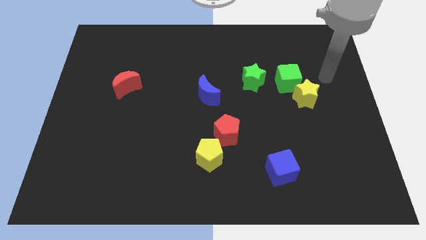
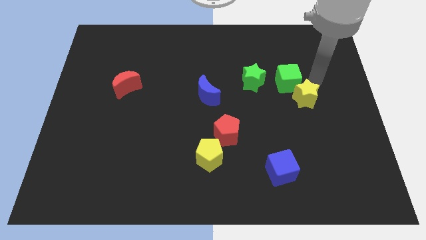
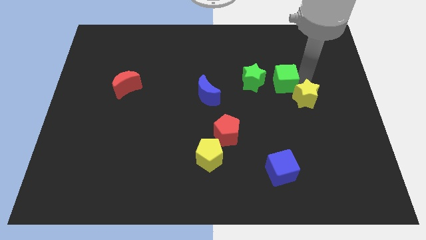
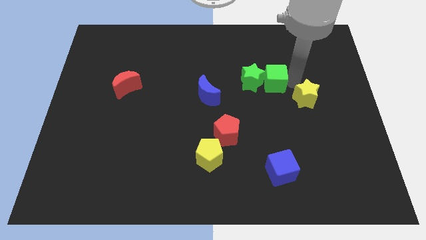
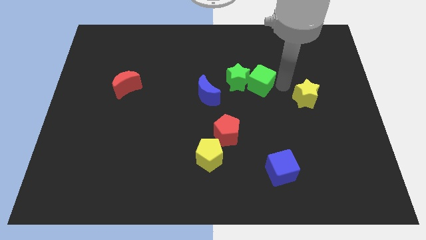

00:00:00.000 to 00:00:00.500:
separate the yellow star from the green cube

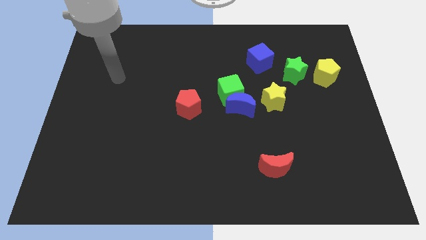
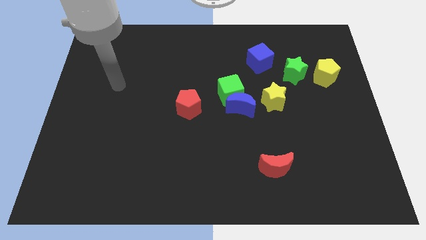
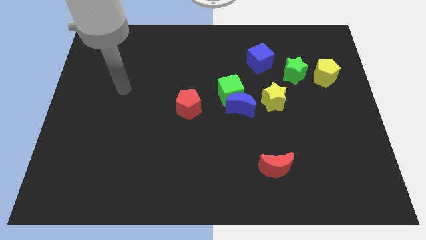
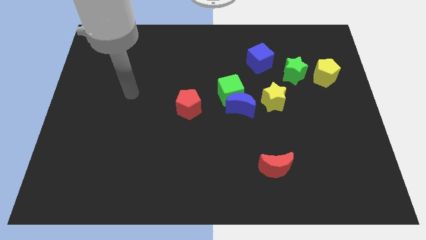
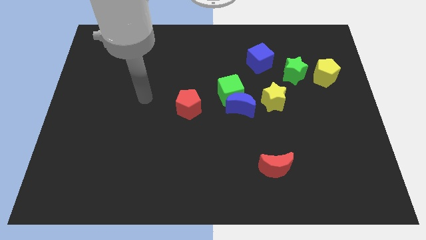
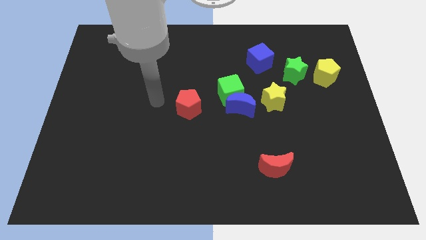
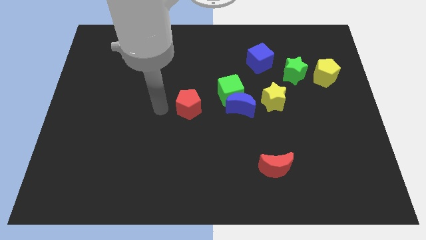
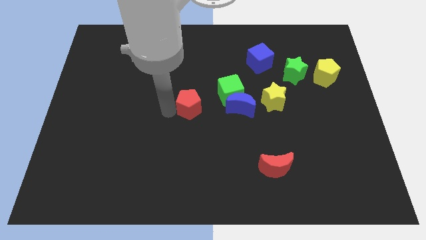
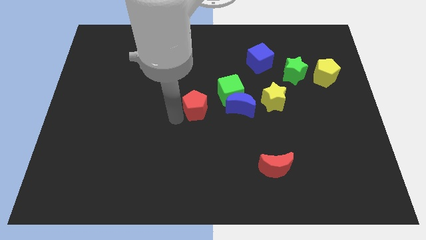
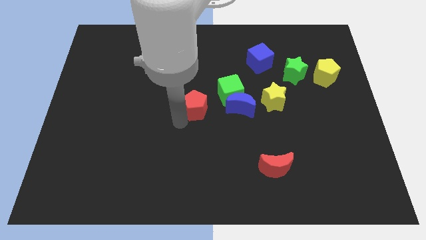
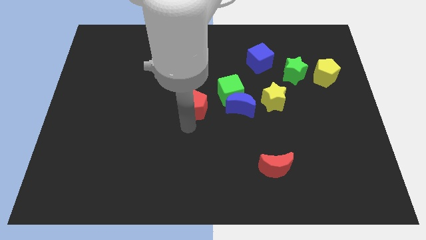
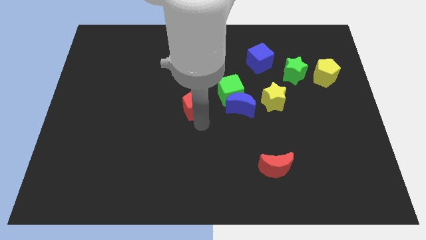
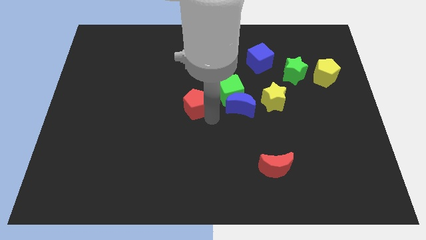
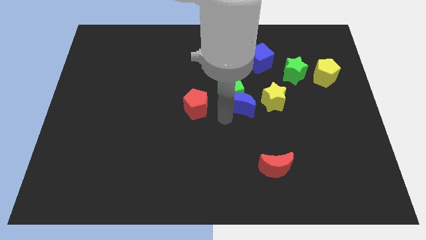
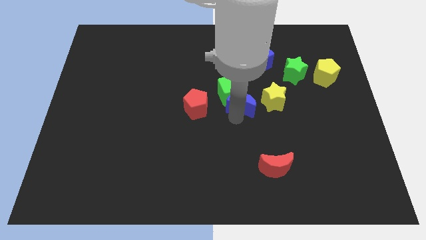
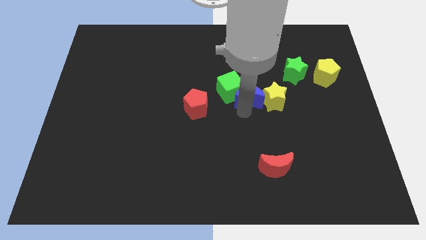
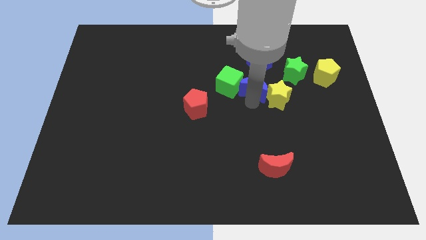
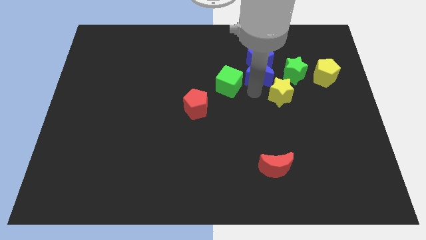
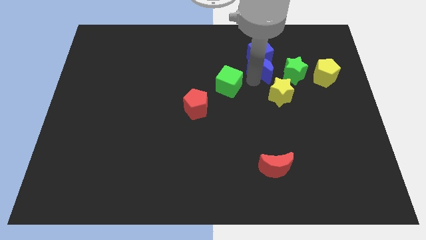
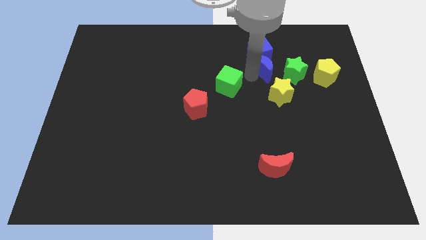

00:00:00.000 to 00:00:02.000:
move the green cube away from the blue moon

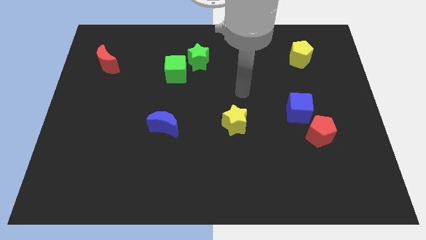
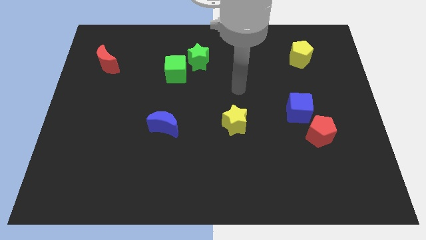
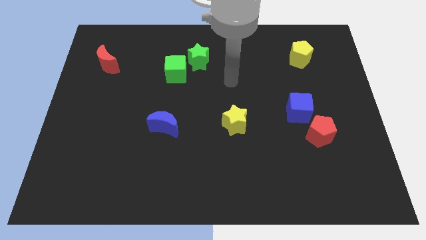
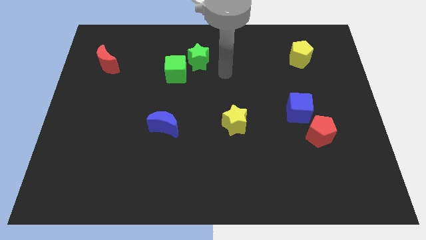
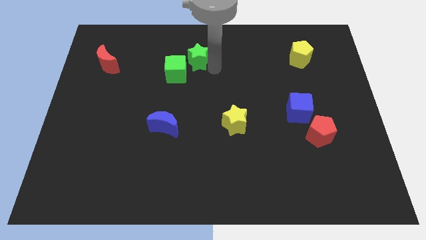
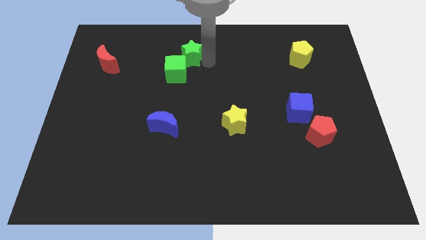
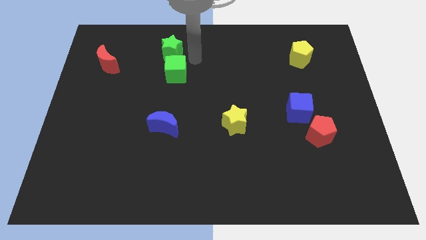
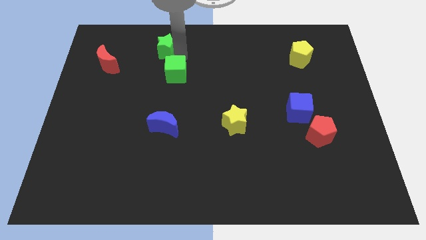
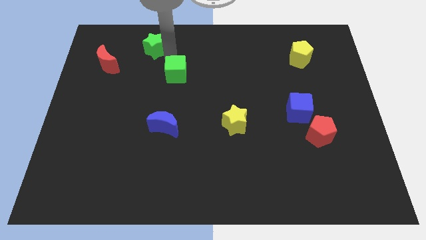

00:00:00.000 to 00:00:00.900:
move the green cube away from the green star

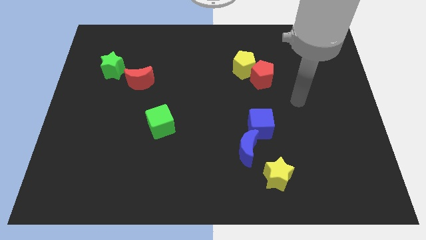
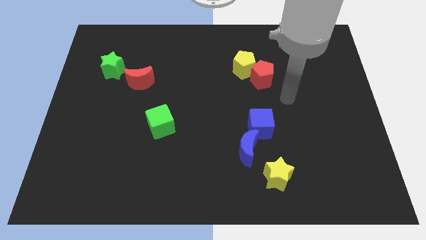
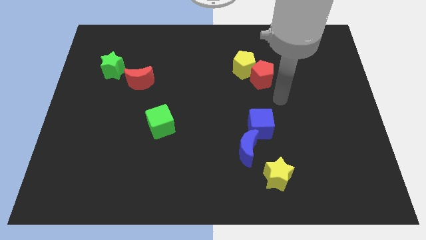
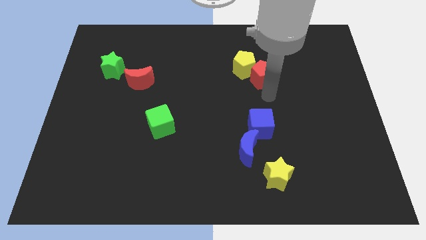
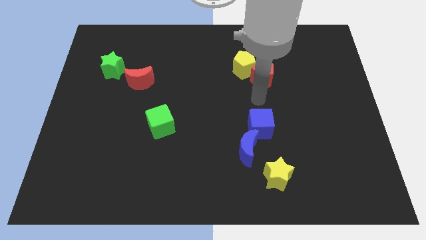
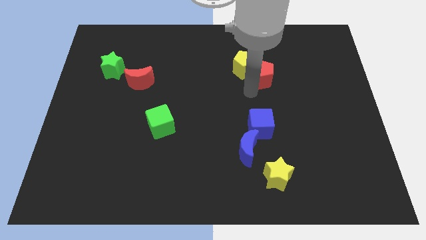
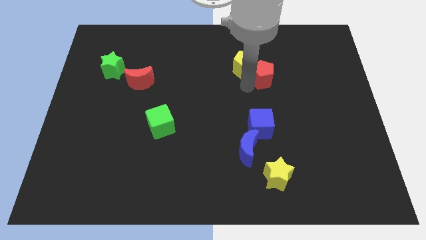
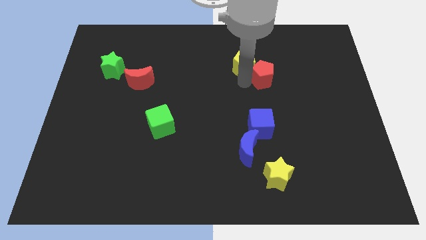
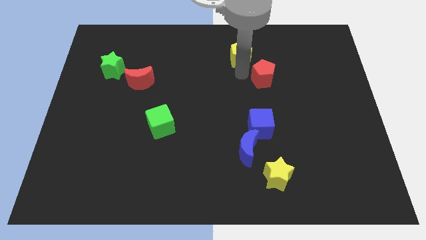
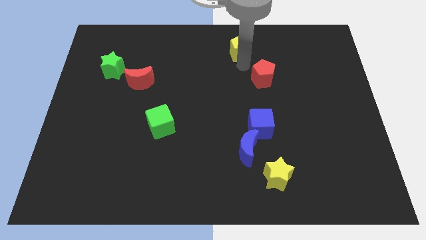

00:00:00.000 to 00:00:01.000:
move the red pentagon away from the yellow pentagon

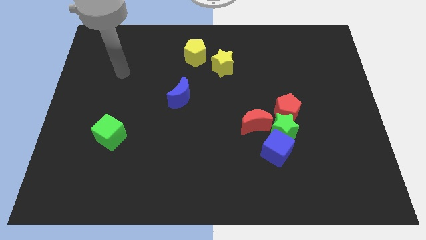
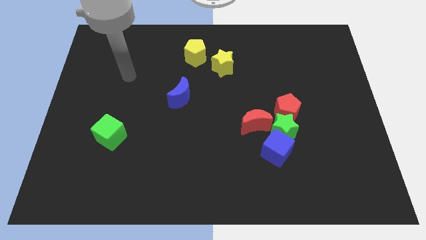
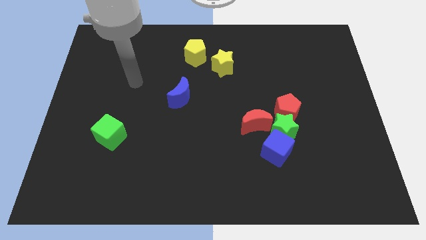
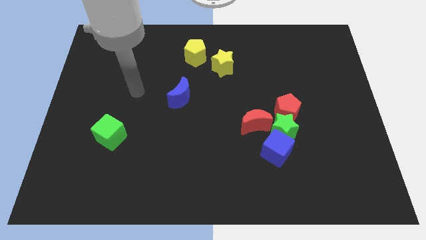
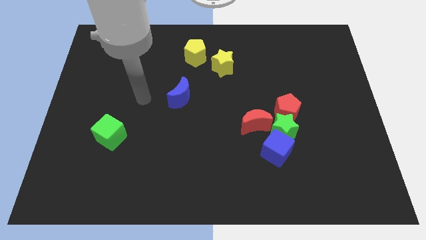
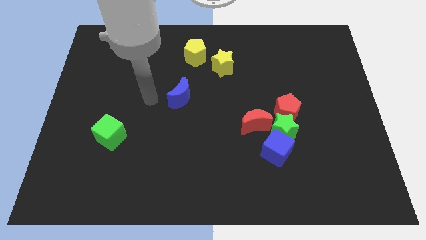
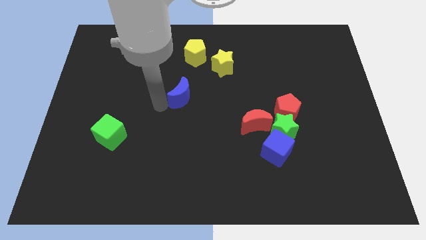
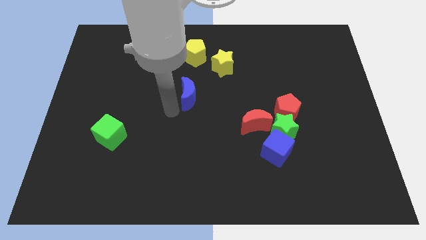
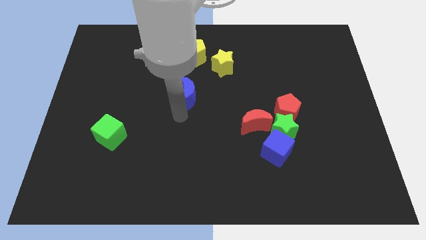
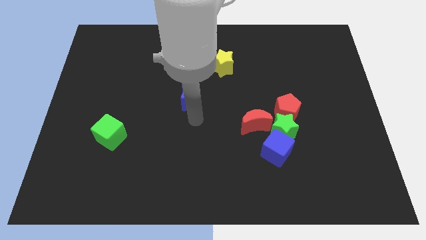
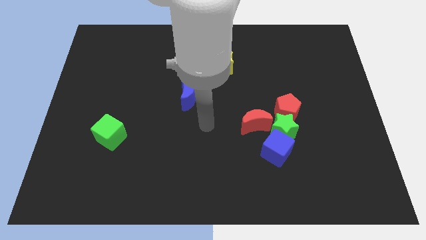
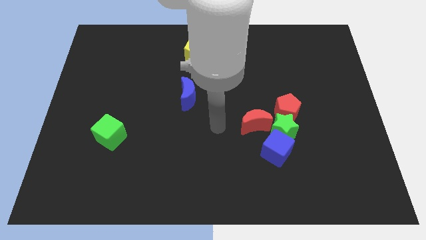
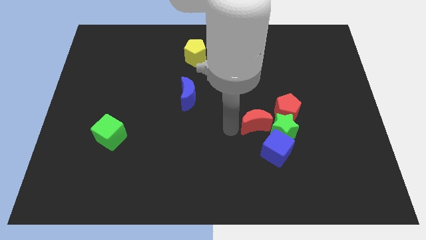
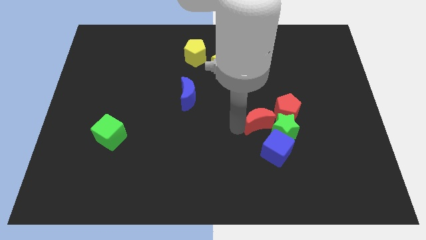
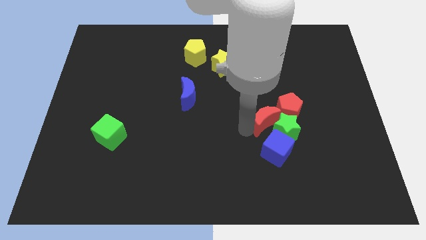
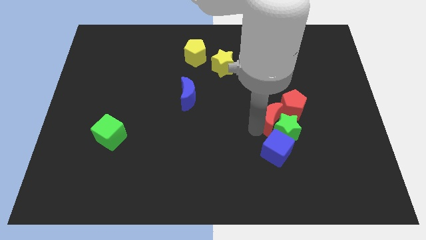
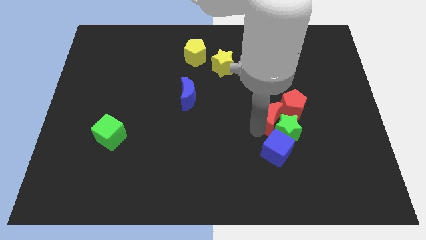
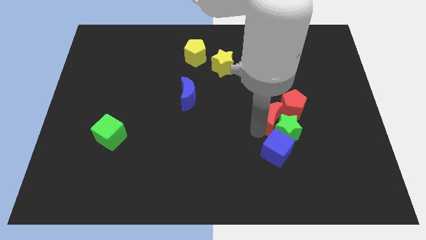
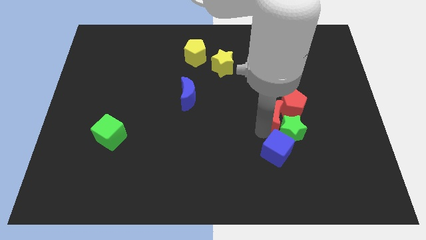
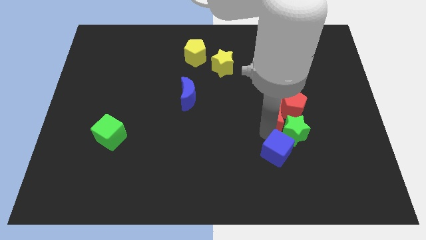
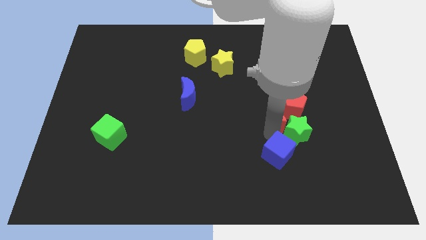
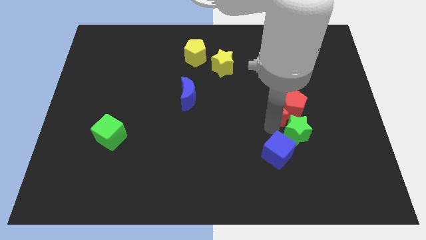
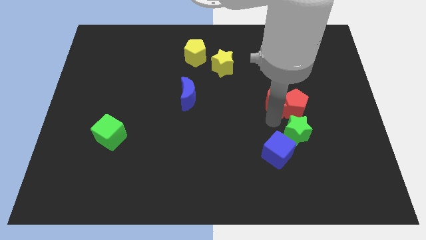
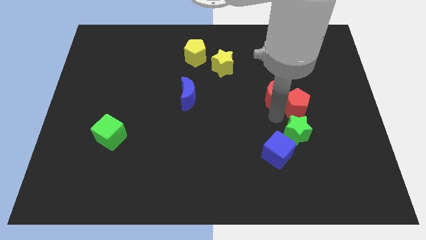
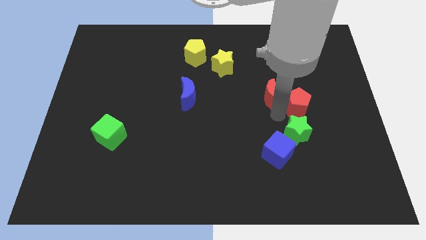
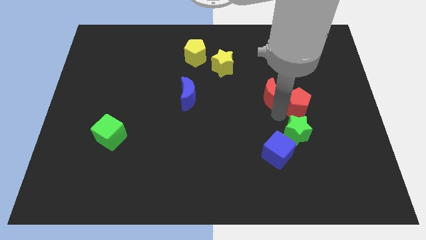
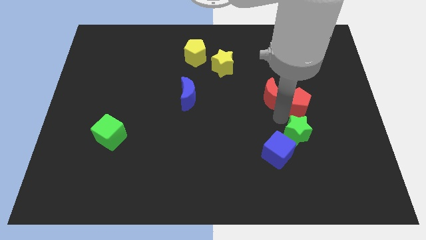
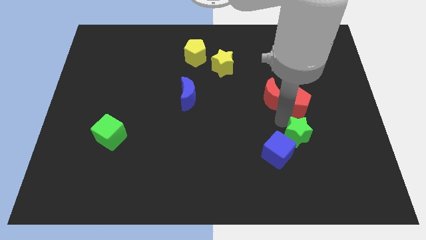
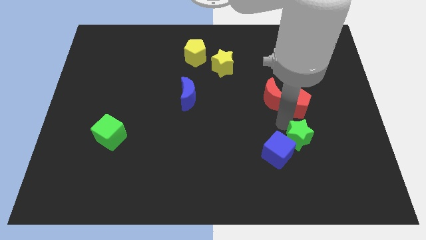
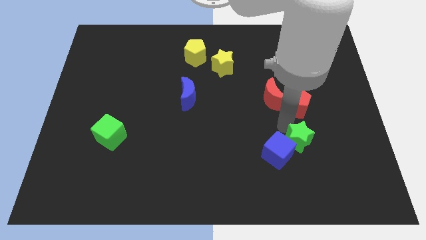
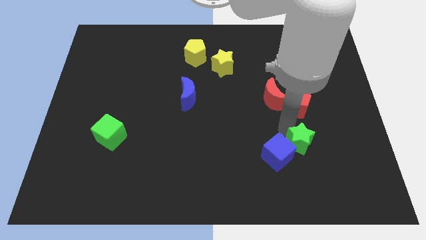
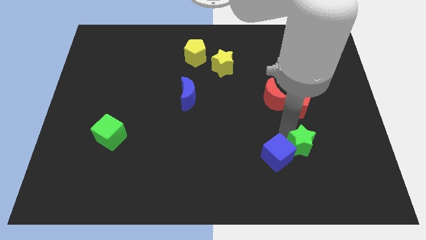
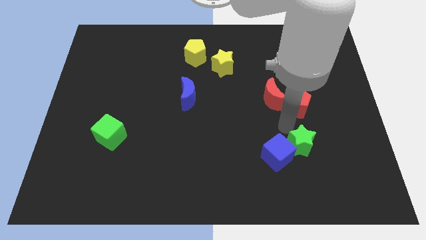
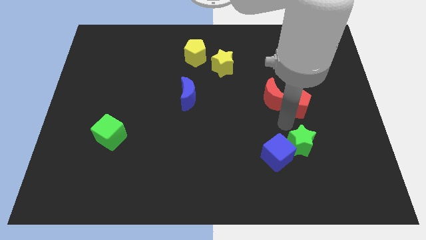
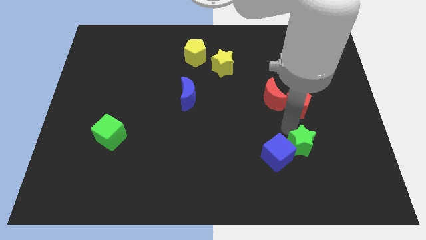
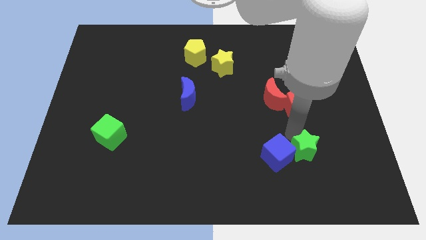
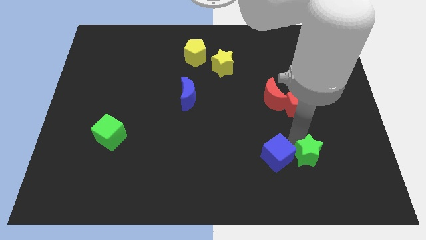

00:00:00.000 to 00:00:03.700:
move the green star away from the group of blocks

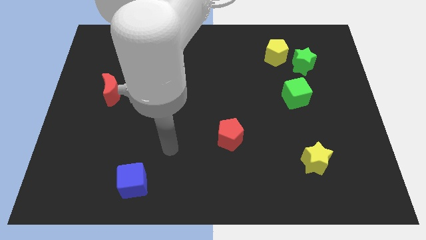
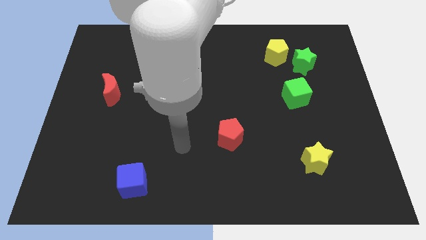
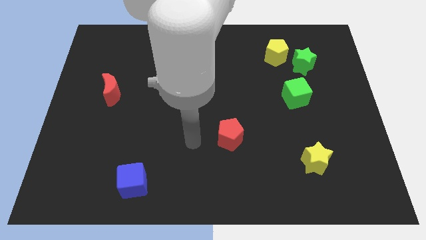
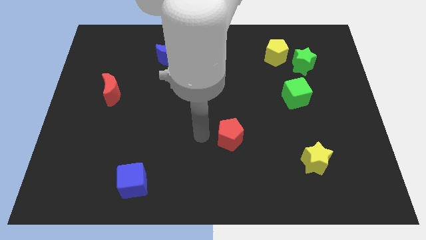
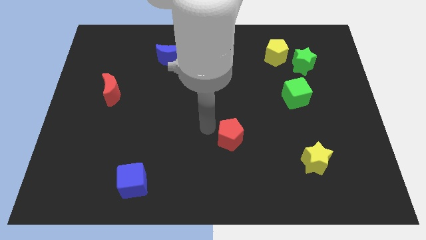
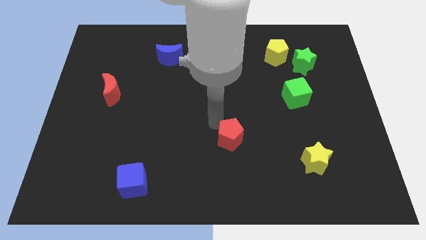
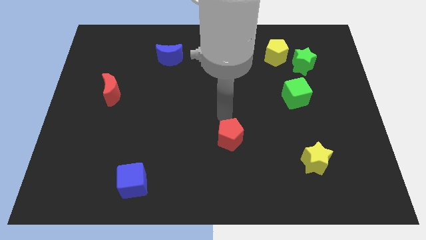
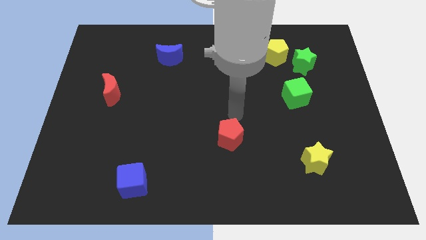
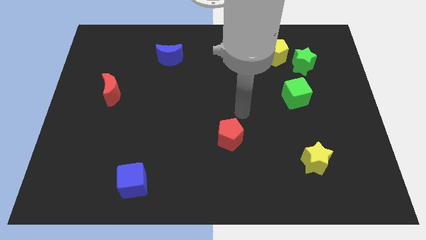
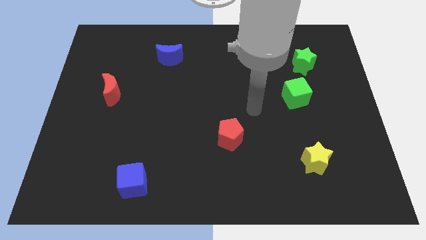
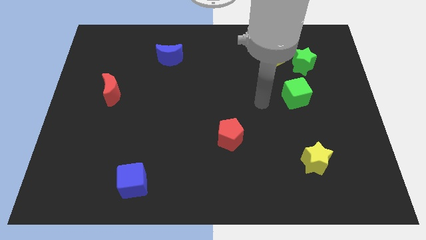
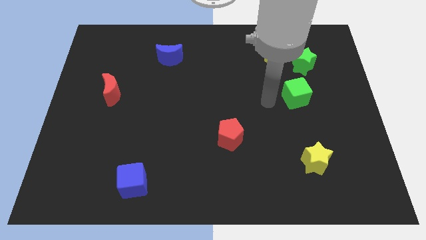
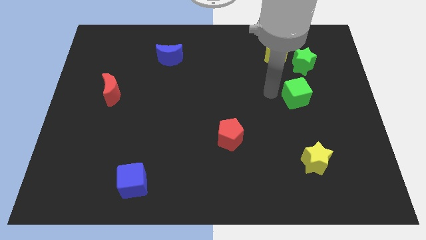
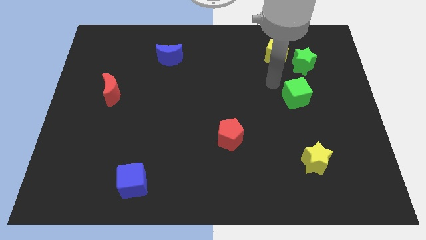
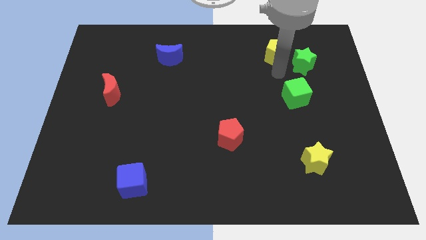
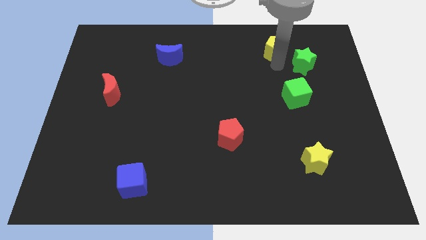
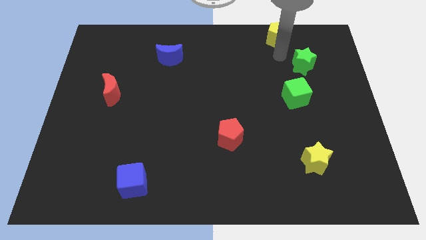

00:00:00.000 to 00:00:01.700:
pull the green star apart from the yellow pentagon
